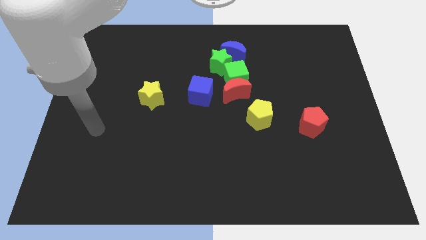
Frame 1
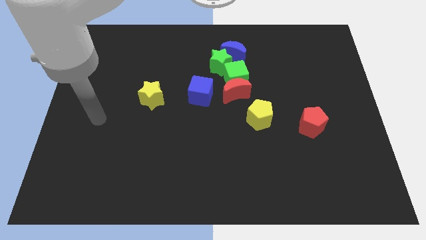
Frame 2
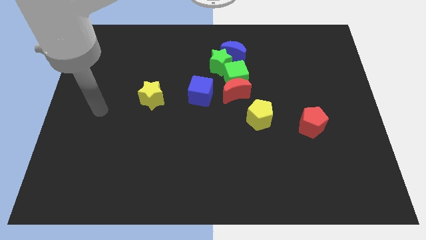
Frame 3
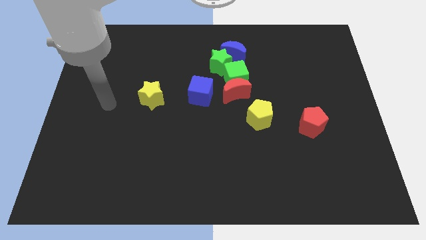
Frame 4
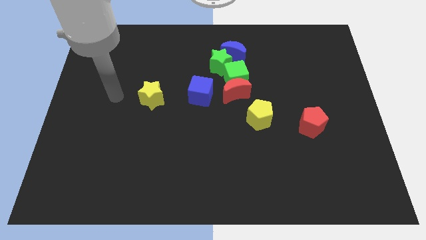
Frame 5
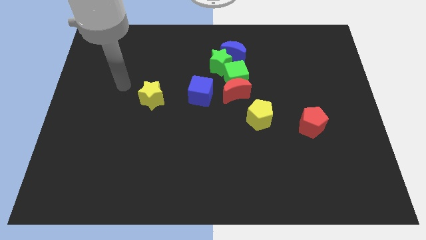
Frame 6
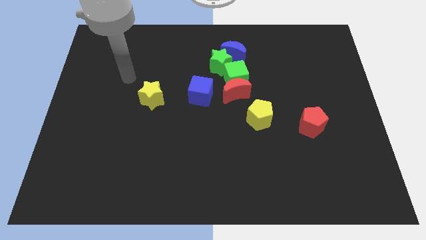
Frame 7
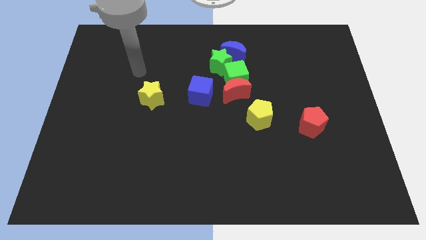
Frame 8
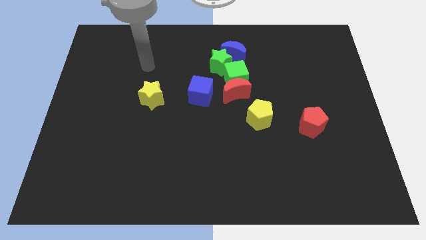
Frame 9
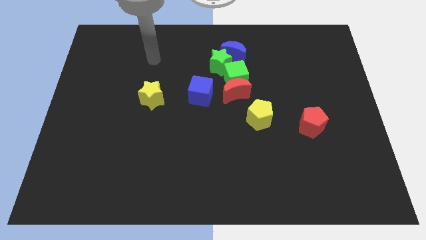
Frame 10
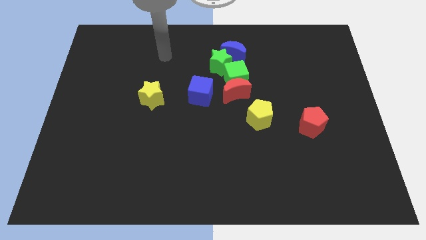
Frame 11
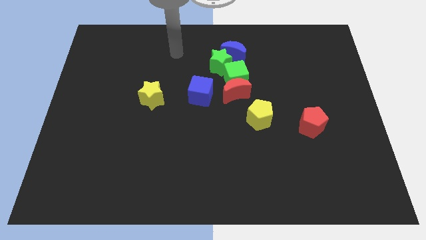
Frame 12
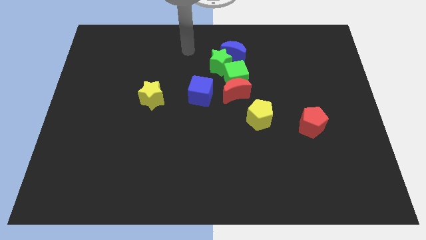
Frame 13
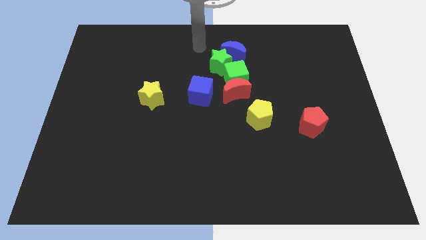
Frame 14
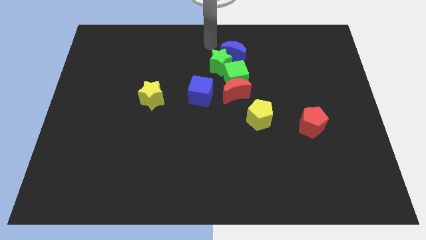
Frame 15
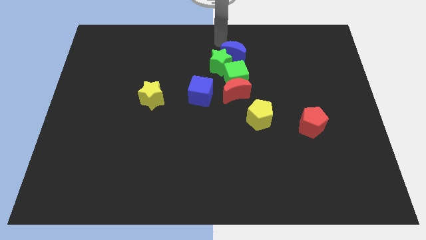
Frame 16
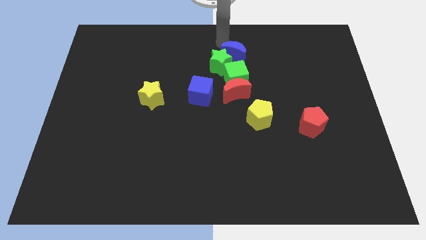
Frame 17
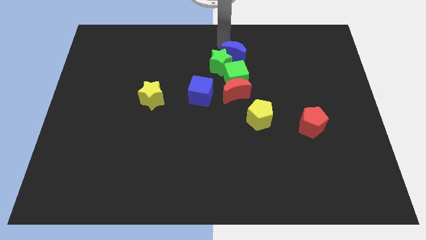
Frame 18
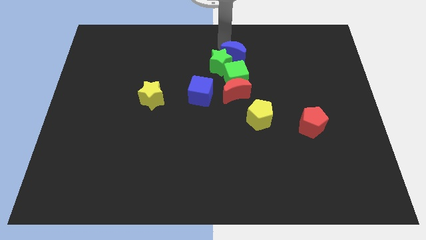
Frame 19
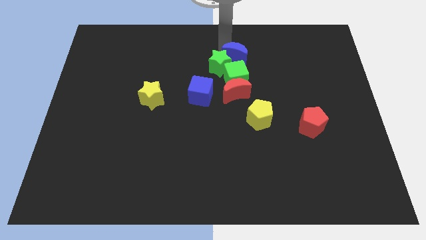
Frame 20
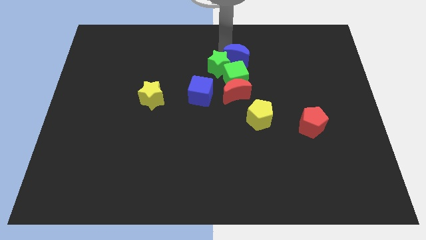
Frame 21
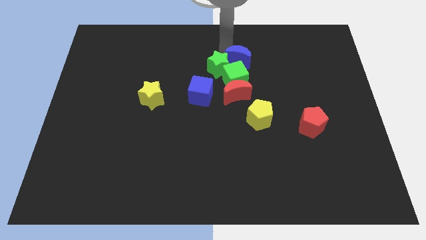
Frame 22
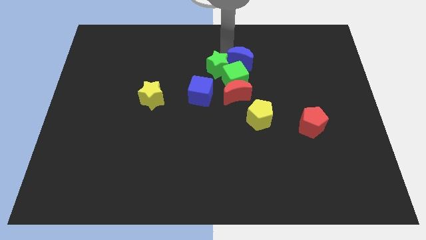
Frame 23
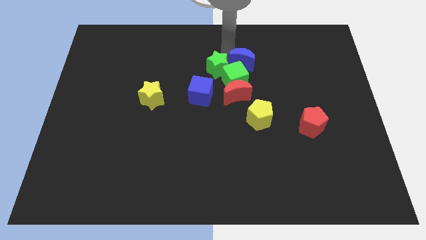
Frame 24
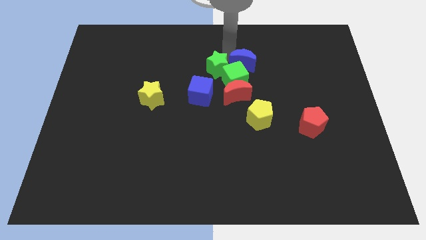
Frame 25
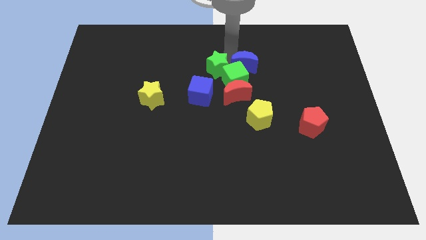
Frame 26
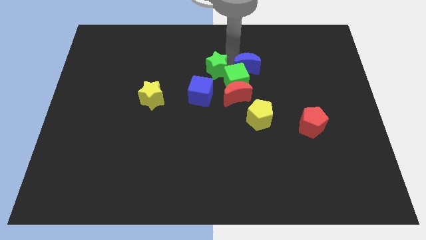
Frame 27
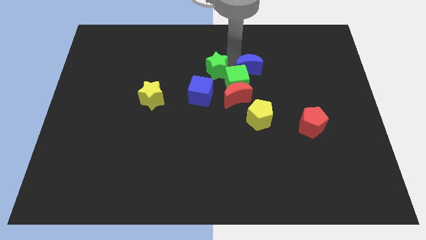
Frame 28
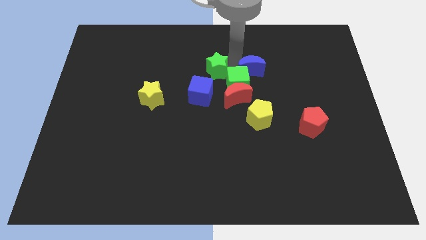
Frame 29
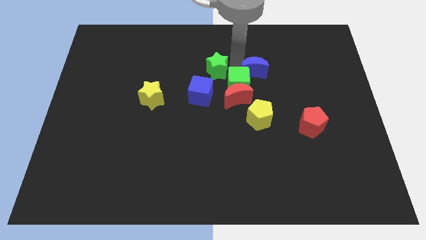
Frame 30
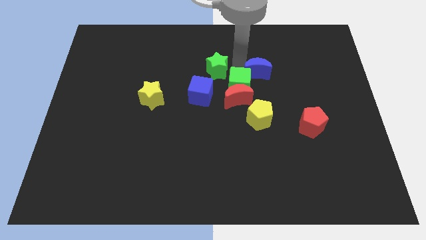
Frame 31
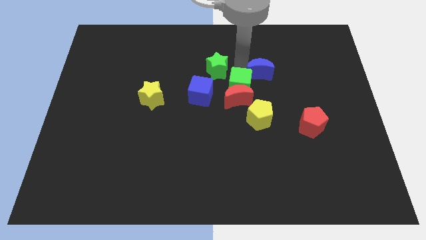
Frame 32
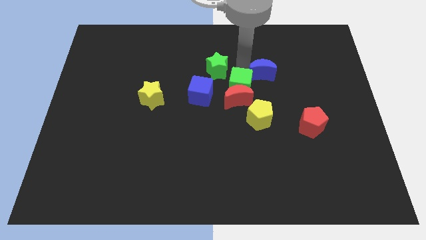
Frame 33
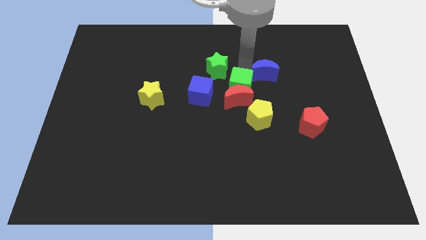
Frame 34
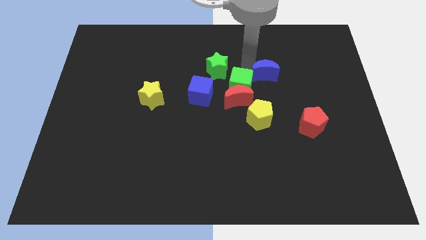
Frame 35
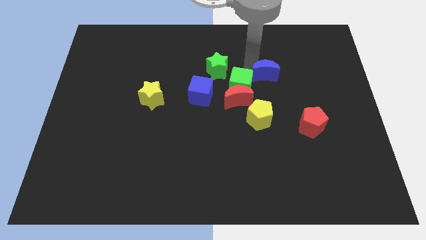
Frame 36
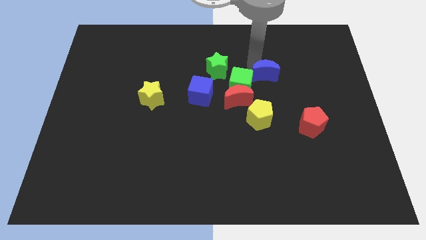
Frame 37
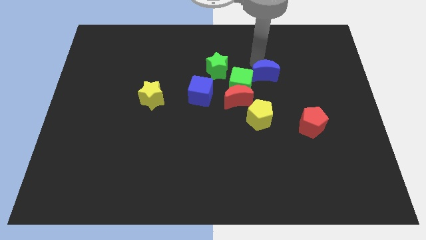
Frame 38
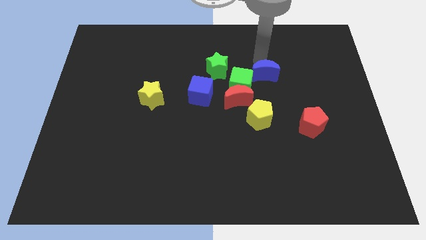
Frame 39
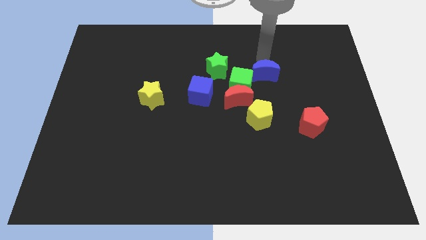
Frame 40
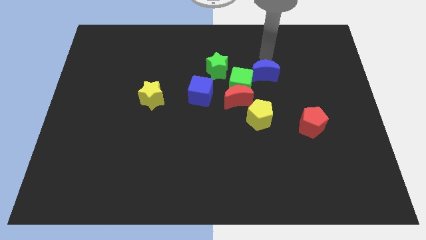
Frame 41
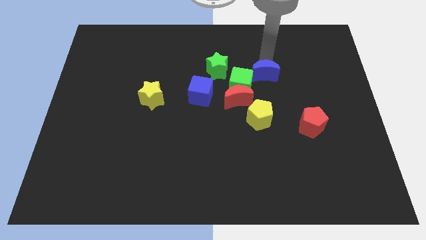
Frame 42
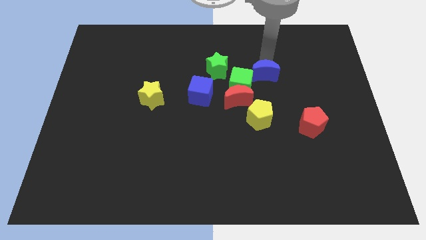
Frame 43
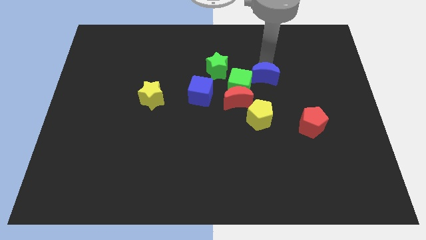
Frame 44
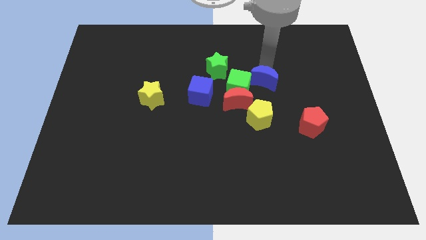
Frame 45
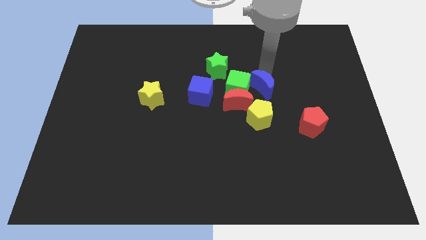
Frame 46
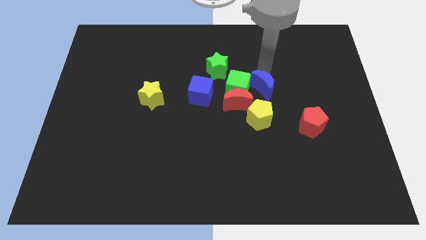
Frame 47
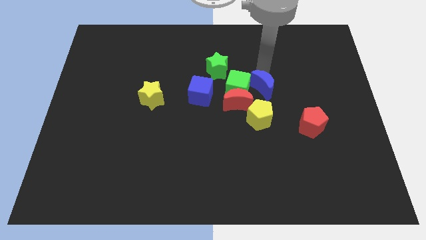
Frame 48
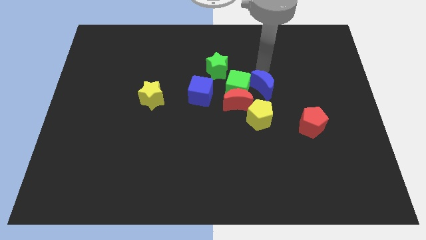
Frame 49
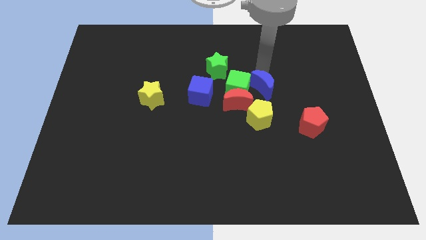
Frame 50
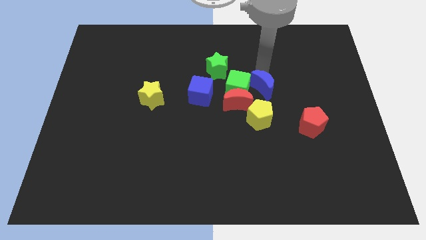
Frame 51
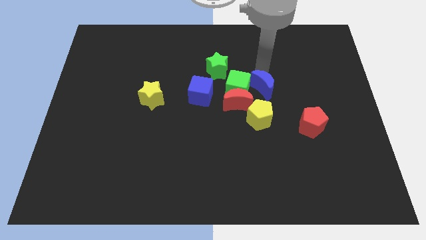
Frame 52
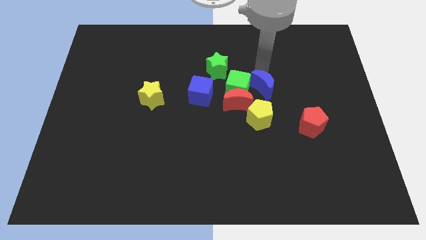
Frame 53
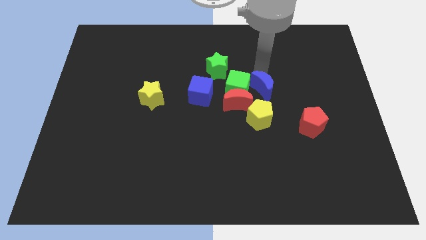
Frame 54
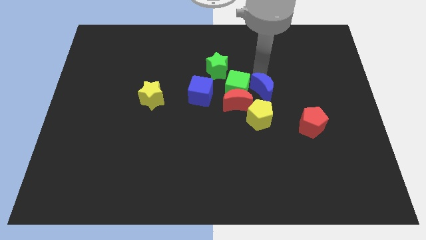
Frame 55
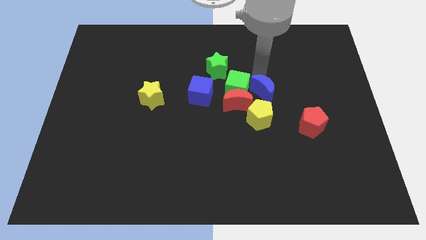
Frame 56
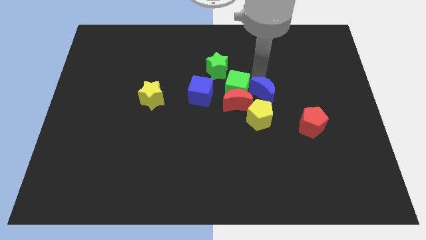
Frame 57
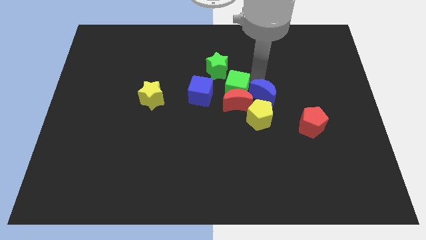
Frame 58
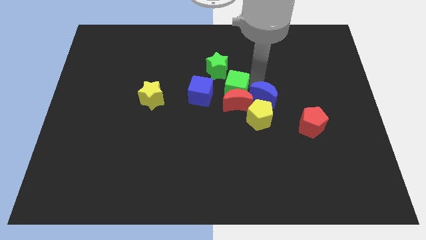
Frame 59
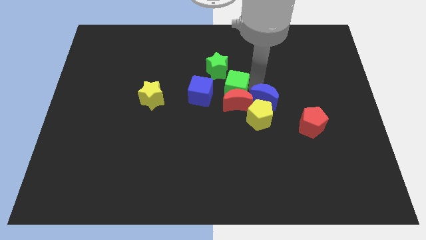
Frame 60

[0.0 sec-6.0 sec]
put the blue moon close to the yellow pentagon

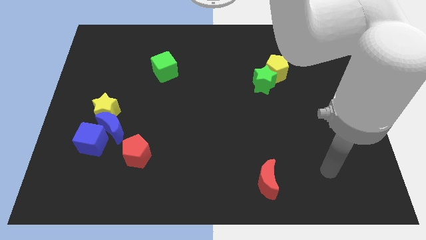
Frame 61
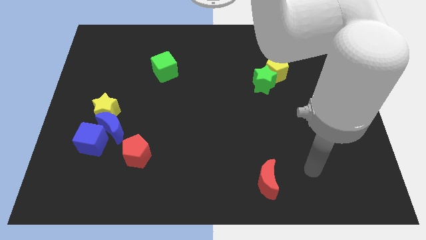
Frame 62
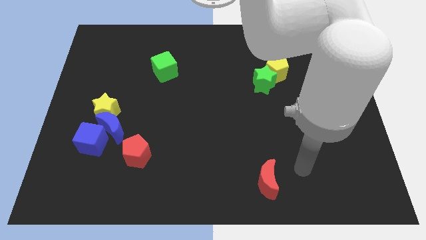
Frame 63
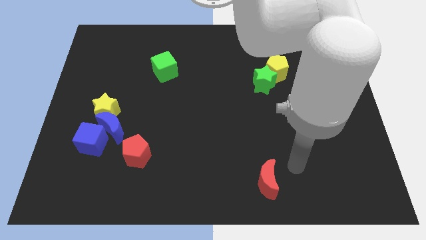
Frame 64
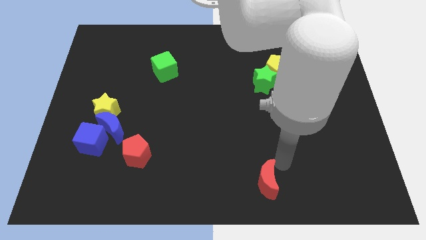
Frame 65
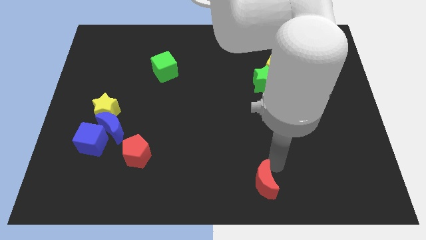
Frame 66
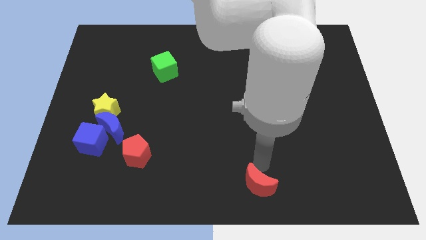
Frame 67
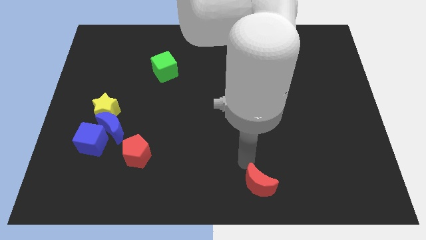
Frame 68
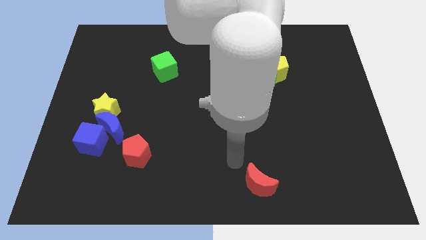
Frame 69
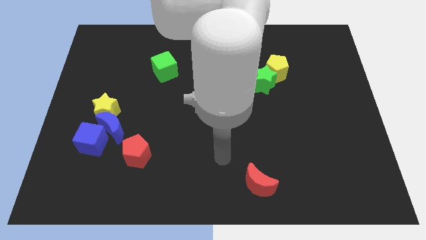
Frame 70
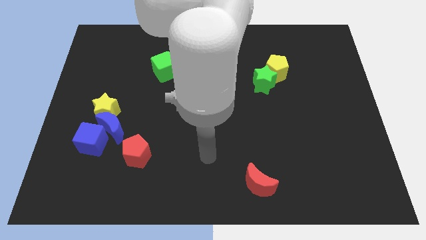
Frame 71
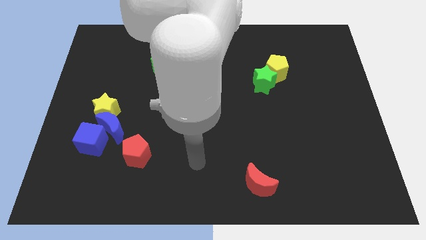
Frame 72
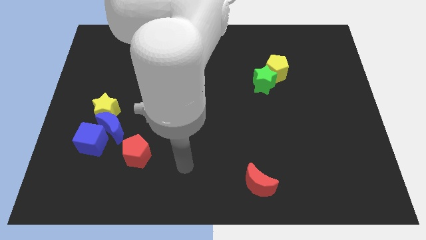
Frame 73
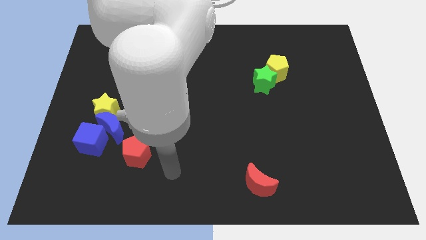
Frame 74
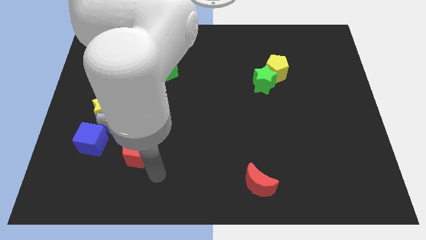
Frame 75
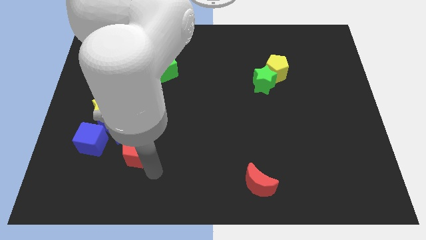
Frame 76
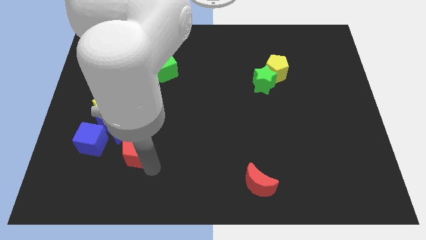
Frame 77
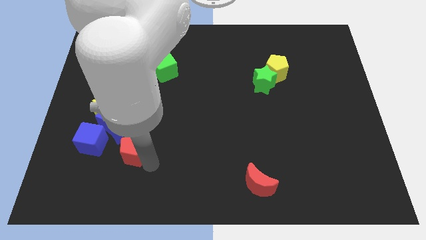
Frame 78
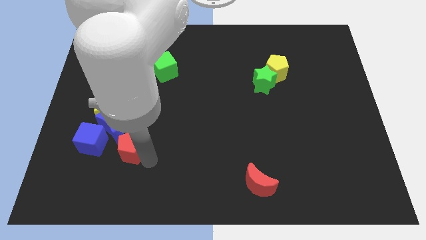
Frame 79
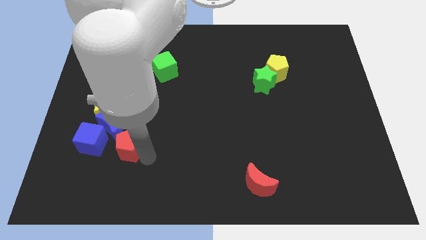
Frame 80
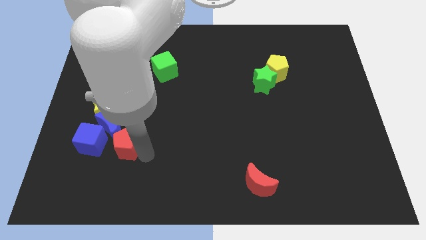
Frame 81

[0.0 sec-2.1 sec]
put the red pentagon towards the blue moon
